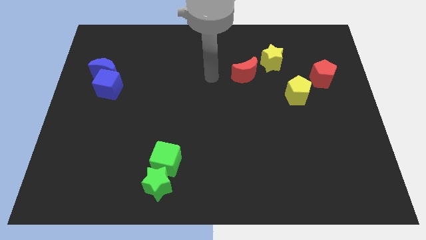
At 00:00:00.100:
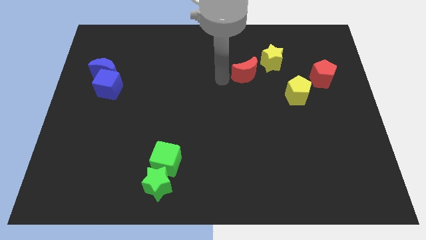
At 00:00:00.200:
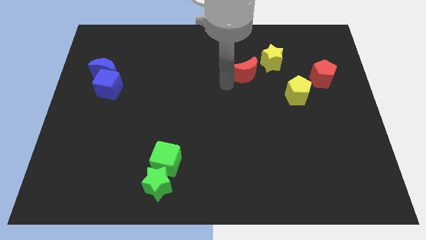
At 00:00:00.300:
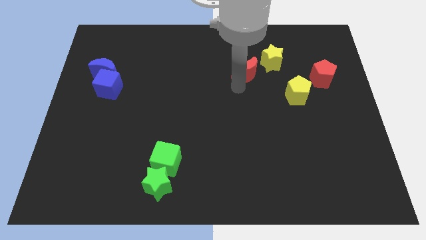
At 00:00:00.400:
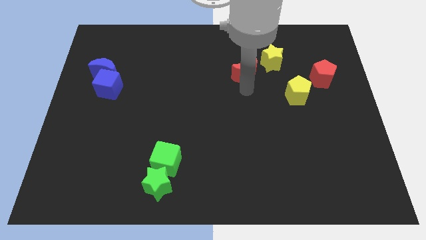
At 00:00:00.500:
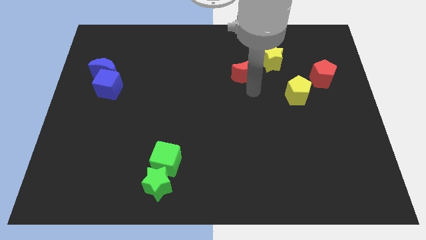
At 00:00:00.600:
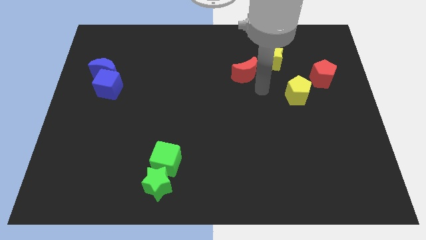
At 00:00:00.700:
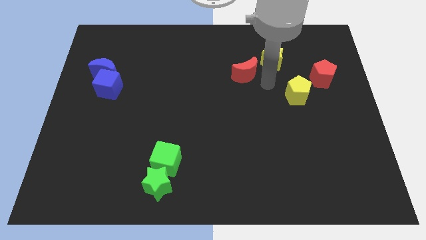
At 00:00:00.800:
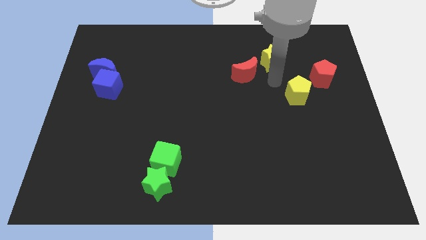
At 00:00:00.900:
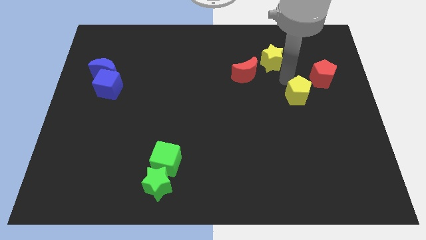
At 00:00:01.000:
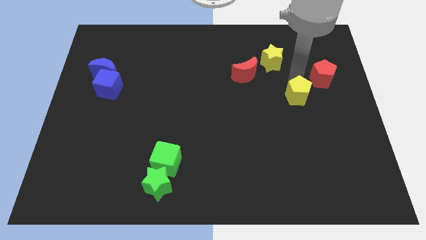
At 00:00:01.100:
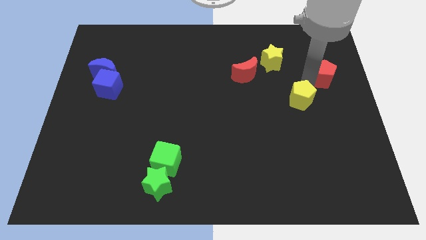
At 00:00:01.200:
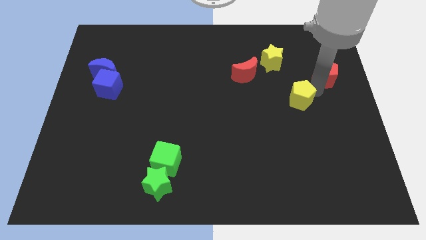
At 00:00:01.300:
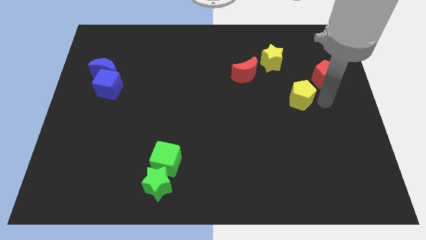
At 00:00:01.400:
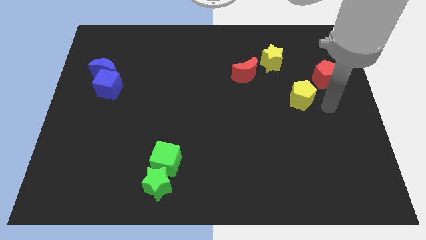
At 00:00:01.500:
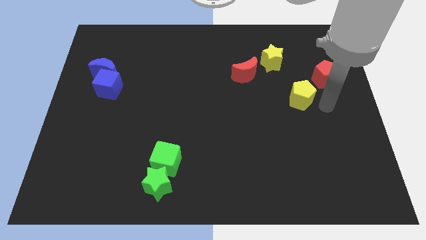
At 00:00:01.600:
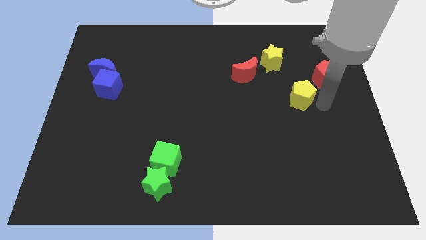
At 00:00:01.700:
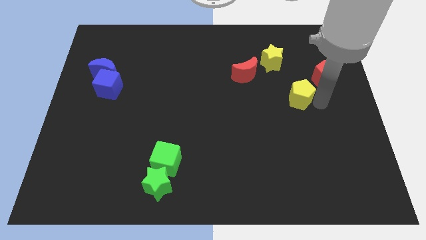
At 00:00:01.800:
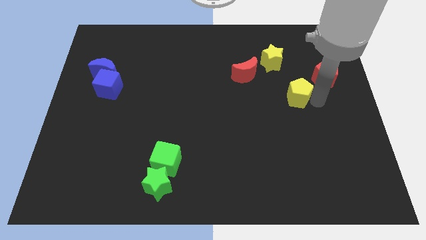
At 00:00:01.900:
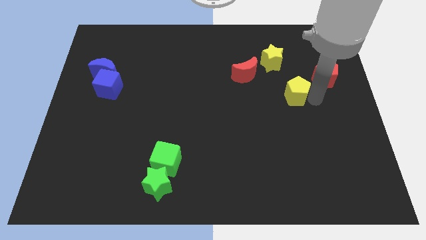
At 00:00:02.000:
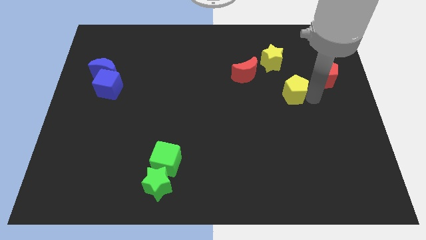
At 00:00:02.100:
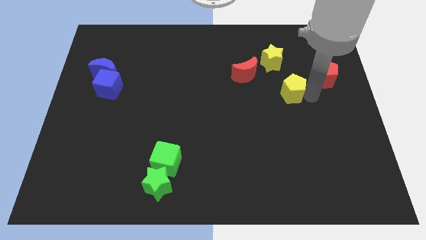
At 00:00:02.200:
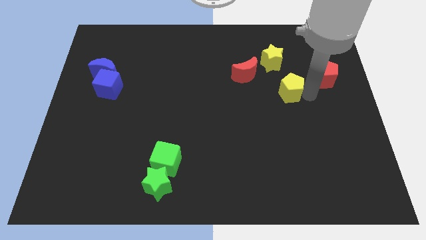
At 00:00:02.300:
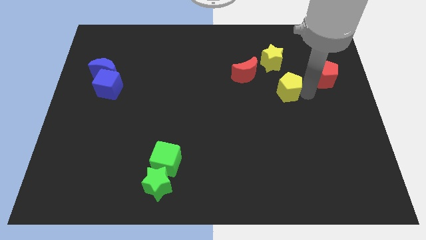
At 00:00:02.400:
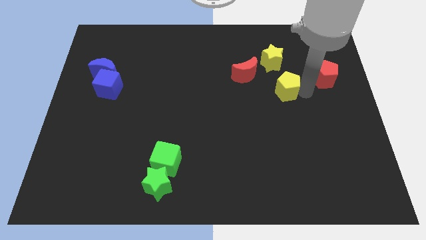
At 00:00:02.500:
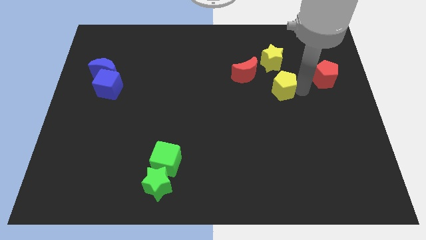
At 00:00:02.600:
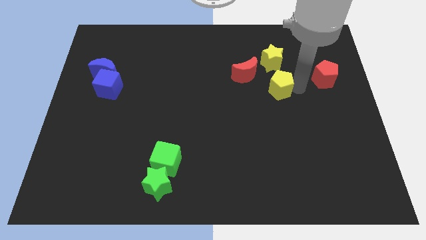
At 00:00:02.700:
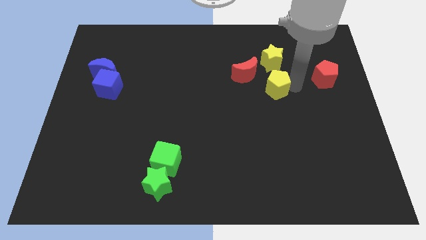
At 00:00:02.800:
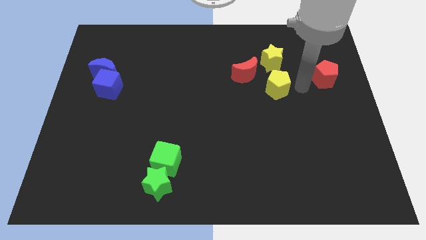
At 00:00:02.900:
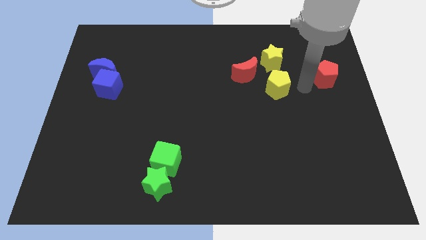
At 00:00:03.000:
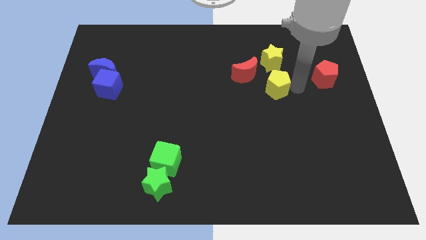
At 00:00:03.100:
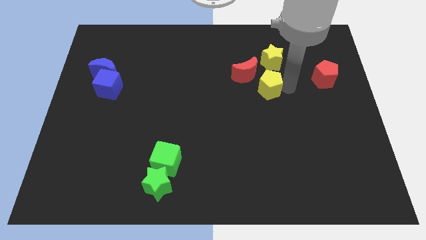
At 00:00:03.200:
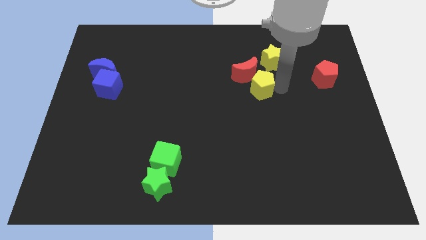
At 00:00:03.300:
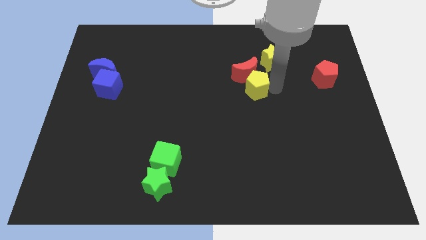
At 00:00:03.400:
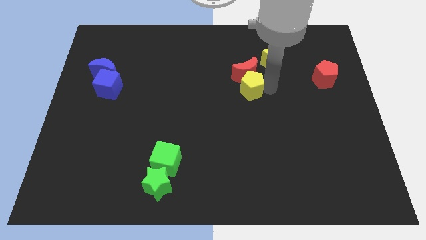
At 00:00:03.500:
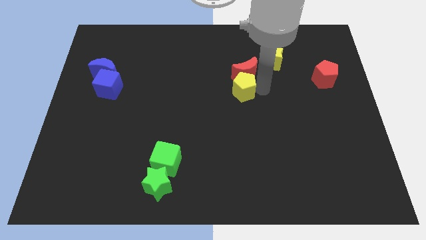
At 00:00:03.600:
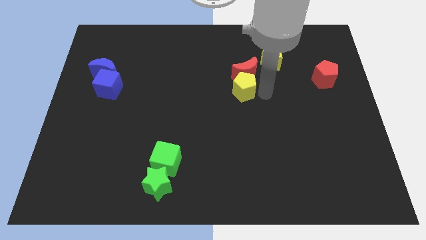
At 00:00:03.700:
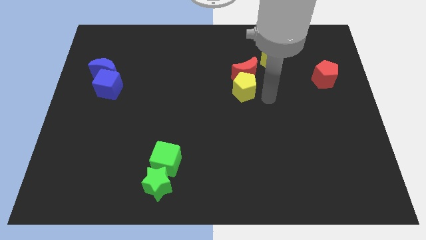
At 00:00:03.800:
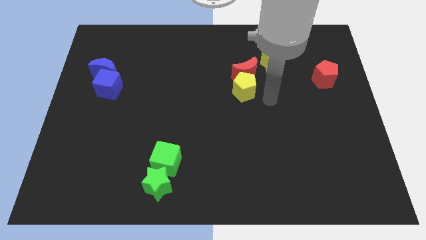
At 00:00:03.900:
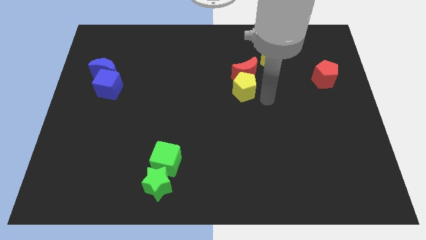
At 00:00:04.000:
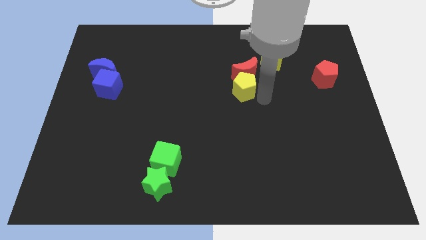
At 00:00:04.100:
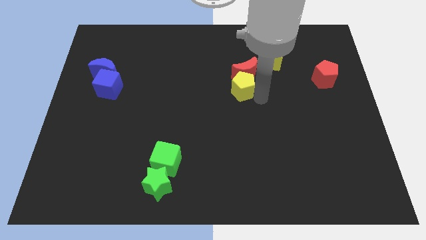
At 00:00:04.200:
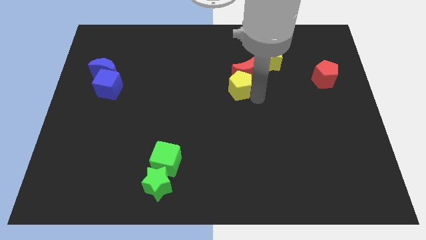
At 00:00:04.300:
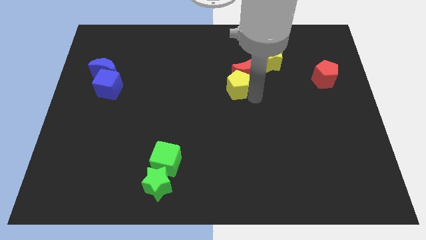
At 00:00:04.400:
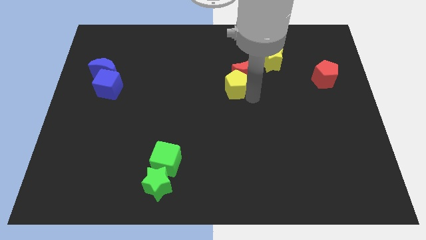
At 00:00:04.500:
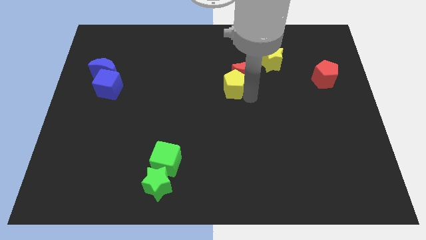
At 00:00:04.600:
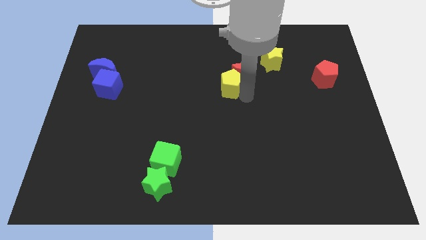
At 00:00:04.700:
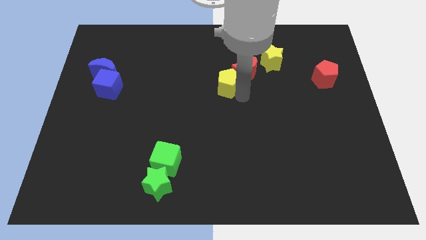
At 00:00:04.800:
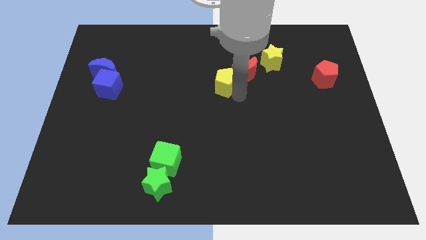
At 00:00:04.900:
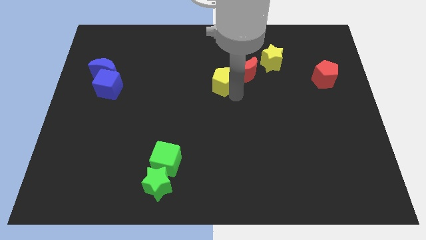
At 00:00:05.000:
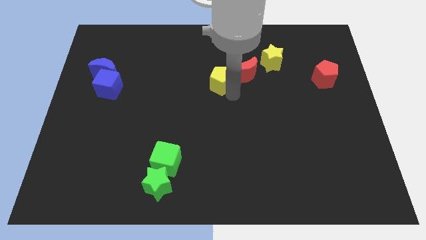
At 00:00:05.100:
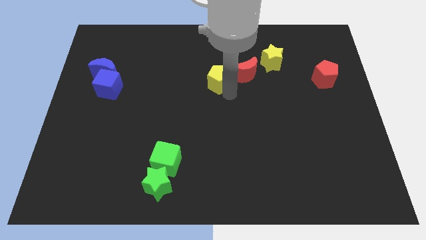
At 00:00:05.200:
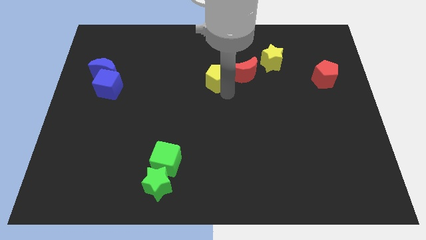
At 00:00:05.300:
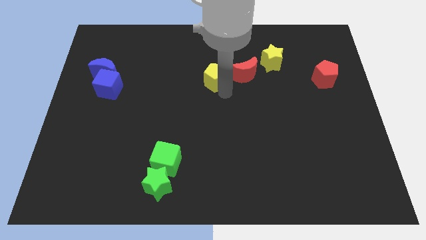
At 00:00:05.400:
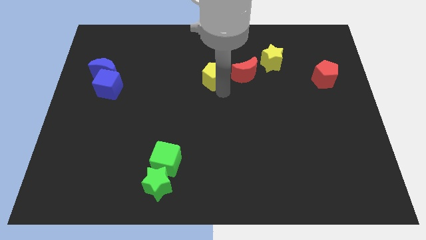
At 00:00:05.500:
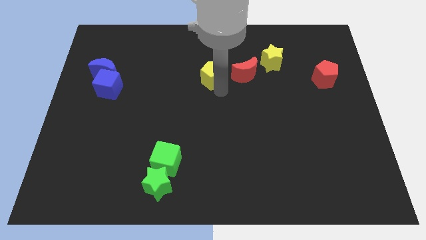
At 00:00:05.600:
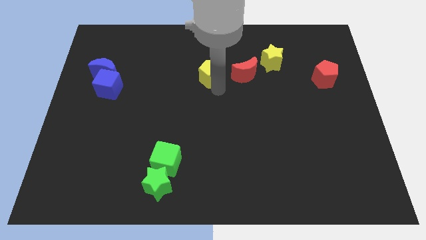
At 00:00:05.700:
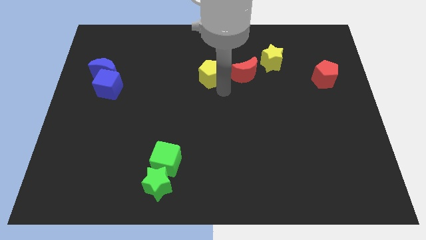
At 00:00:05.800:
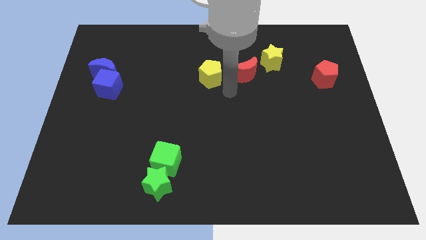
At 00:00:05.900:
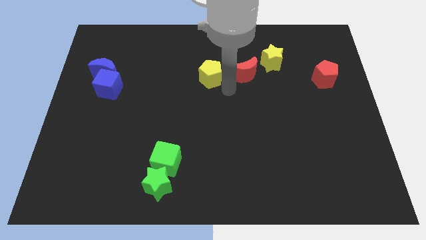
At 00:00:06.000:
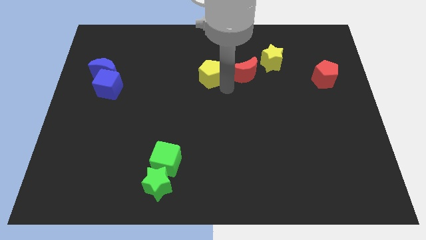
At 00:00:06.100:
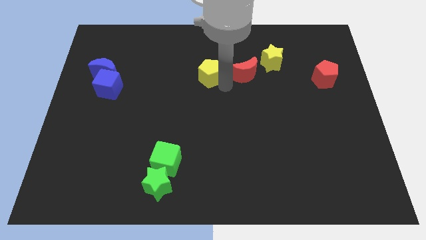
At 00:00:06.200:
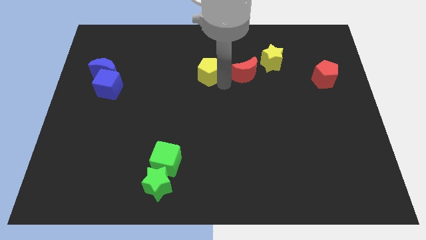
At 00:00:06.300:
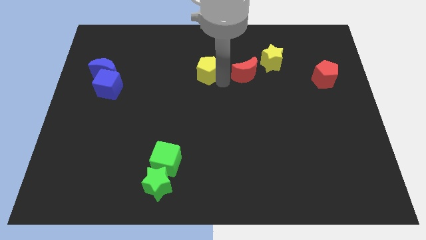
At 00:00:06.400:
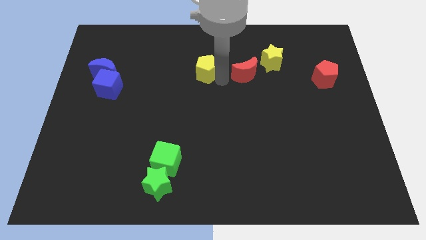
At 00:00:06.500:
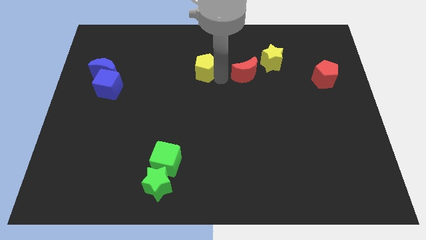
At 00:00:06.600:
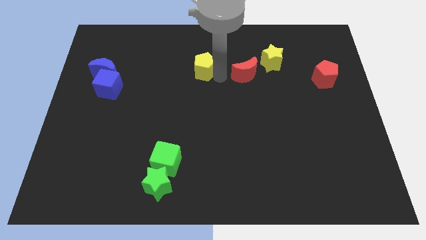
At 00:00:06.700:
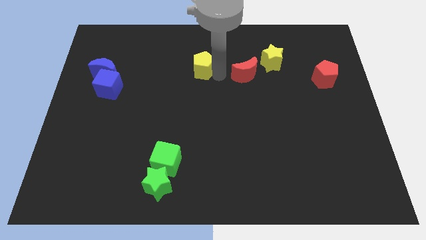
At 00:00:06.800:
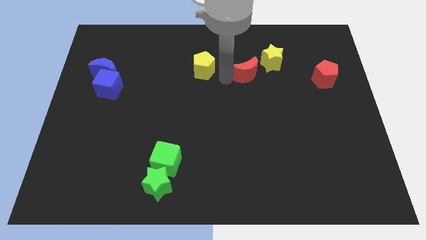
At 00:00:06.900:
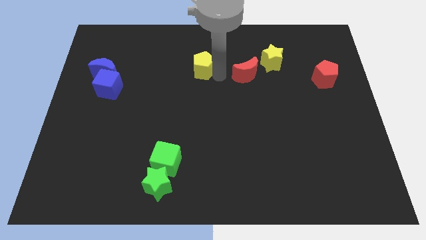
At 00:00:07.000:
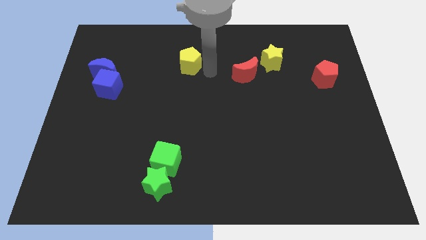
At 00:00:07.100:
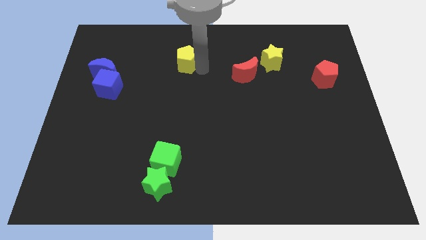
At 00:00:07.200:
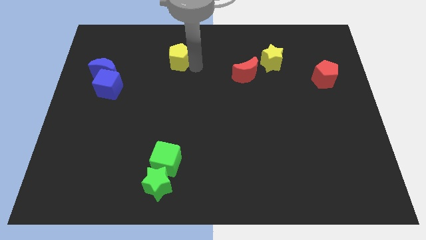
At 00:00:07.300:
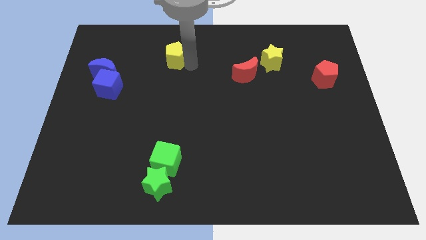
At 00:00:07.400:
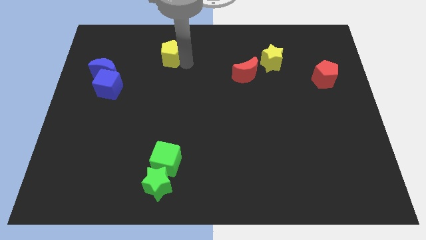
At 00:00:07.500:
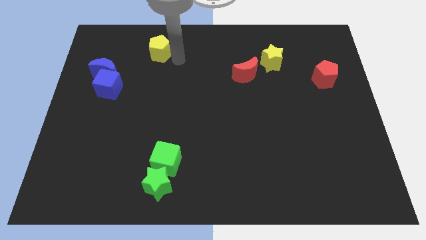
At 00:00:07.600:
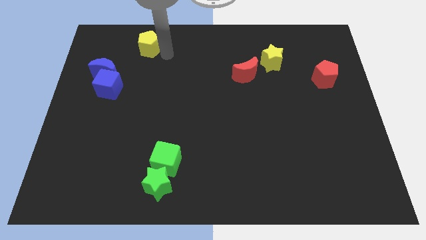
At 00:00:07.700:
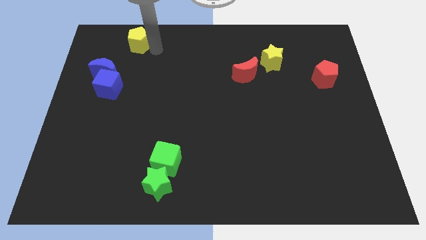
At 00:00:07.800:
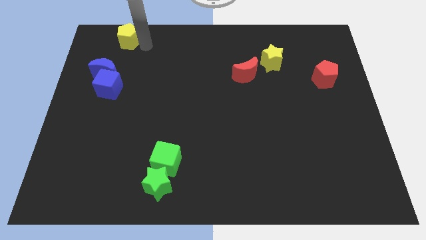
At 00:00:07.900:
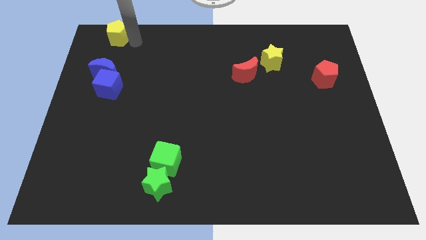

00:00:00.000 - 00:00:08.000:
push the yellow pentagon to the top left
